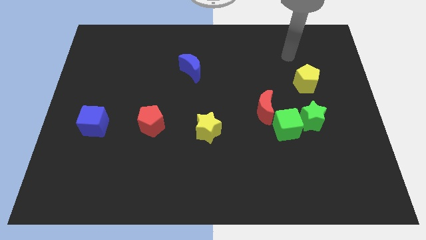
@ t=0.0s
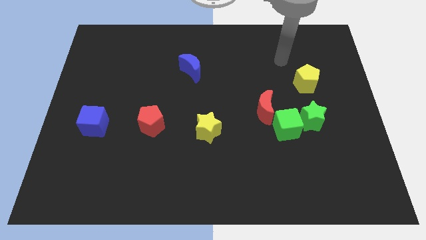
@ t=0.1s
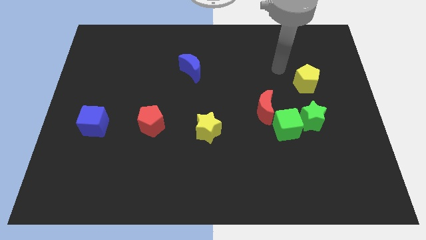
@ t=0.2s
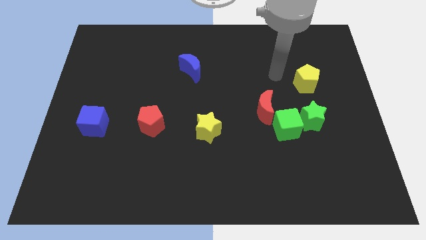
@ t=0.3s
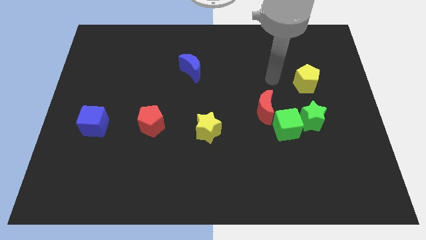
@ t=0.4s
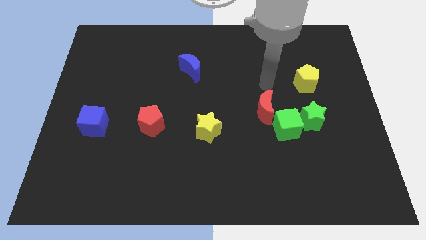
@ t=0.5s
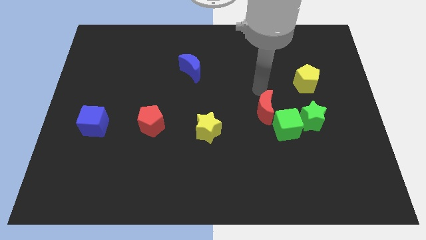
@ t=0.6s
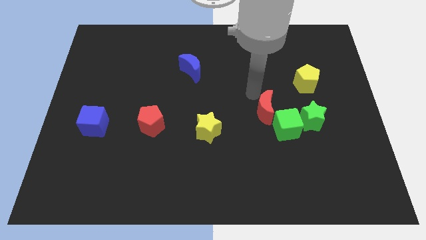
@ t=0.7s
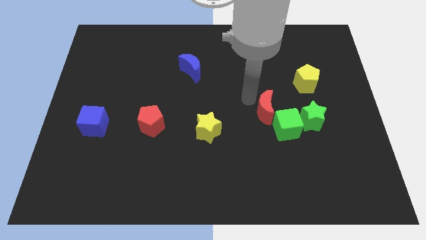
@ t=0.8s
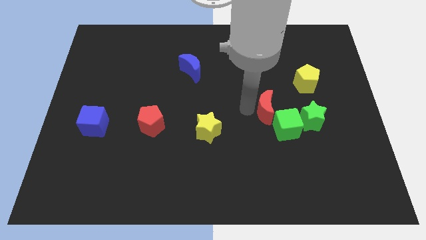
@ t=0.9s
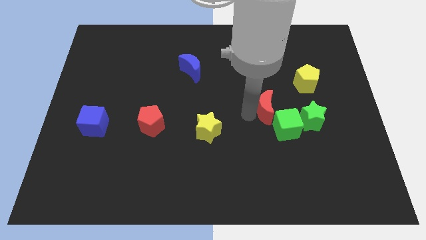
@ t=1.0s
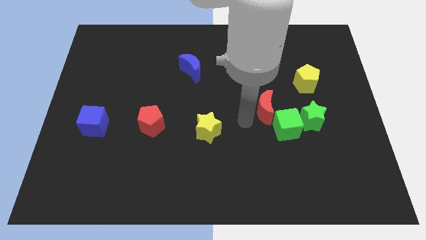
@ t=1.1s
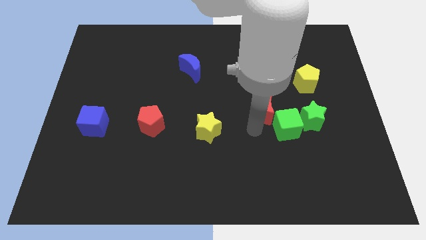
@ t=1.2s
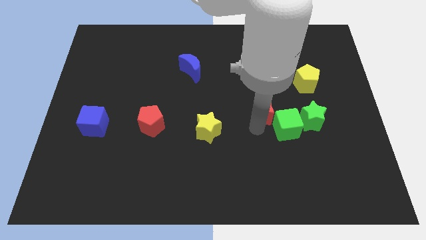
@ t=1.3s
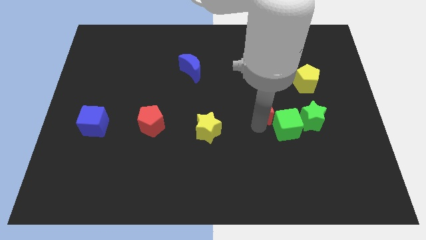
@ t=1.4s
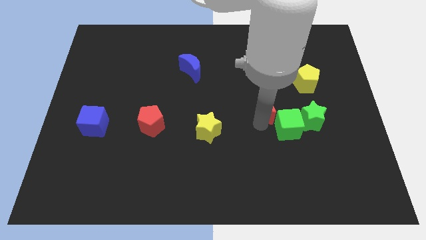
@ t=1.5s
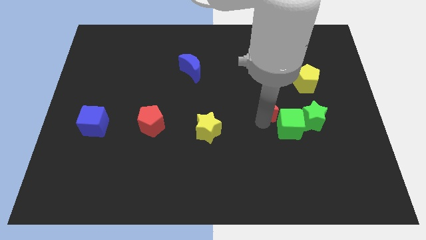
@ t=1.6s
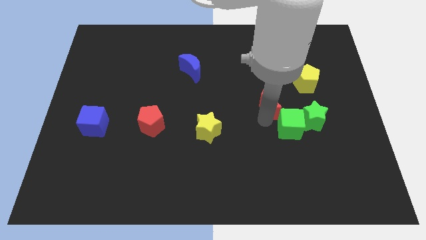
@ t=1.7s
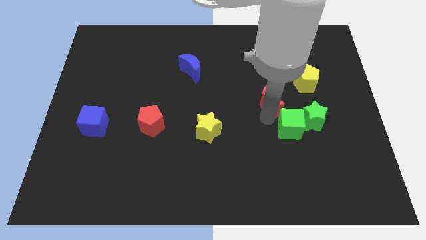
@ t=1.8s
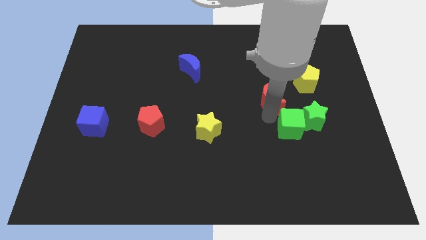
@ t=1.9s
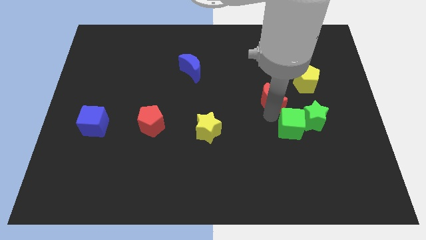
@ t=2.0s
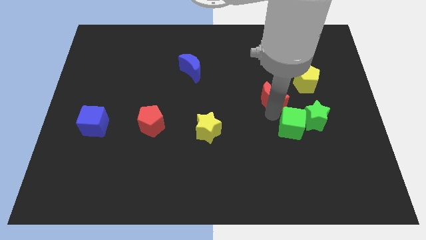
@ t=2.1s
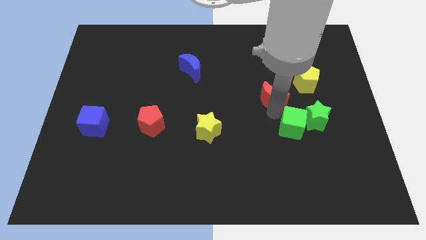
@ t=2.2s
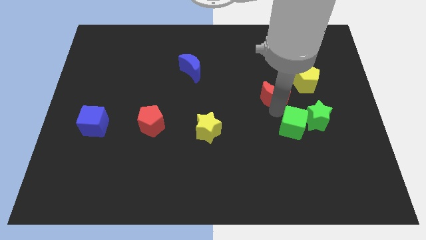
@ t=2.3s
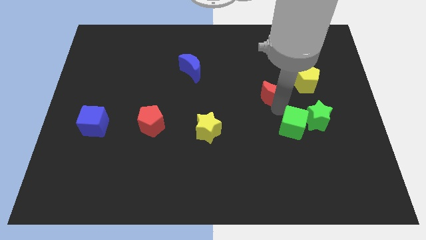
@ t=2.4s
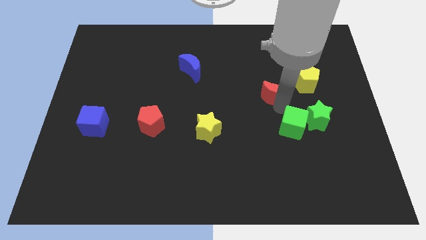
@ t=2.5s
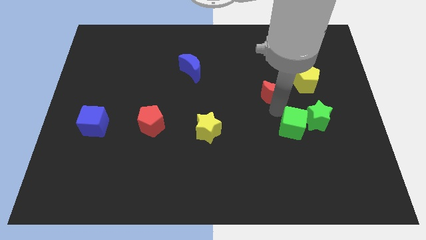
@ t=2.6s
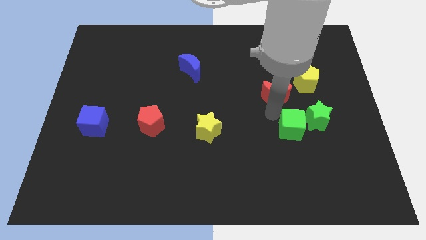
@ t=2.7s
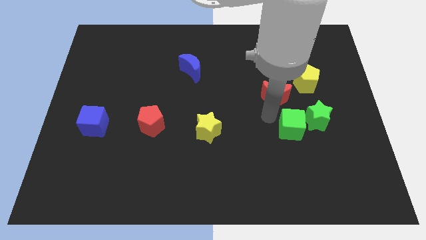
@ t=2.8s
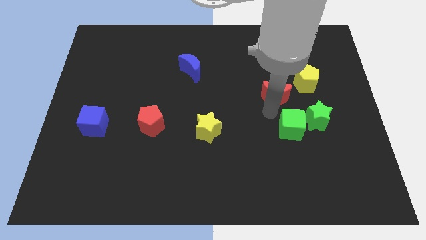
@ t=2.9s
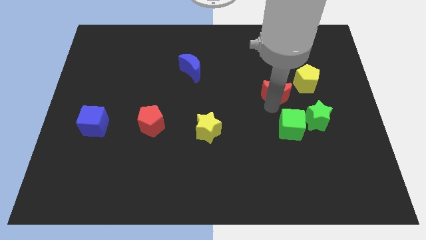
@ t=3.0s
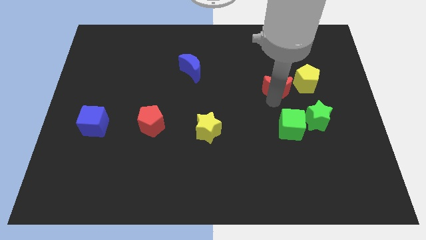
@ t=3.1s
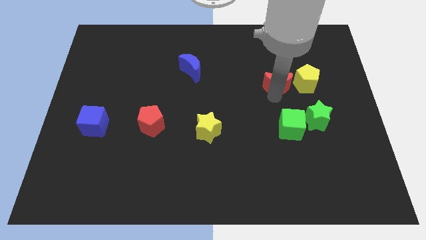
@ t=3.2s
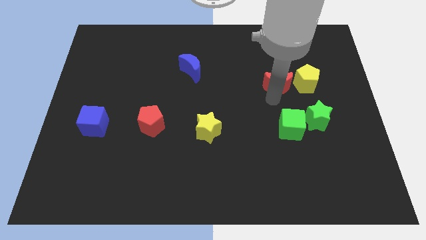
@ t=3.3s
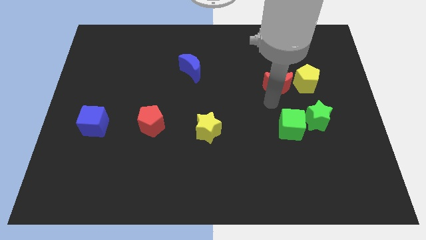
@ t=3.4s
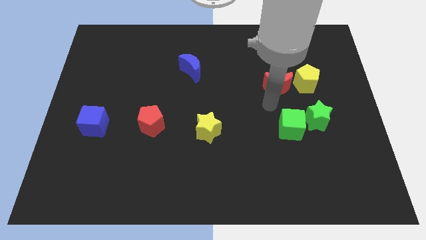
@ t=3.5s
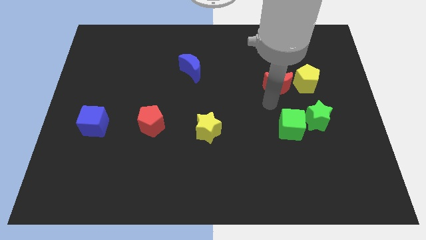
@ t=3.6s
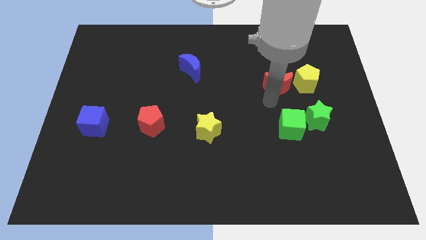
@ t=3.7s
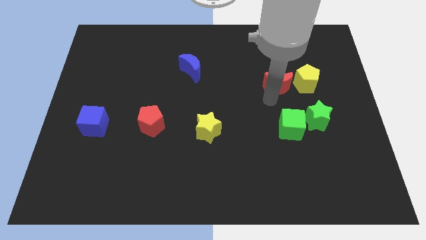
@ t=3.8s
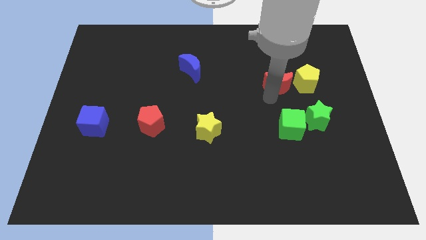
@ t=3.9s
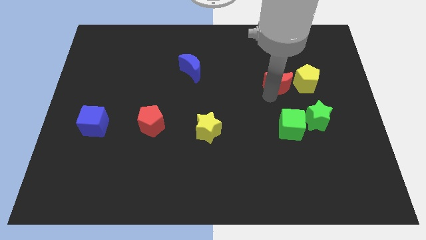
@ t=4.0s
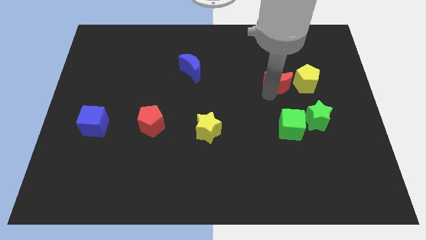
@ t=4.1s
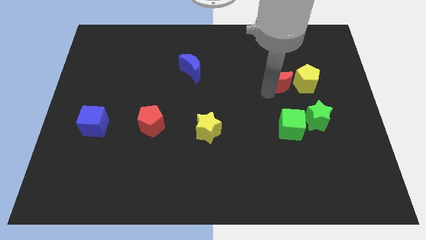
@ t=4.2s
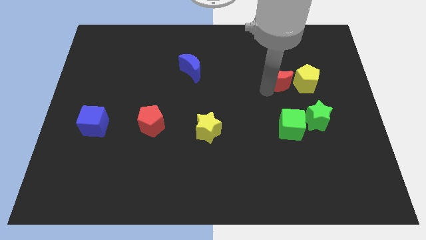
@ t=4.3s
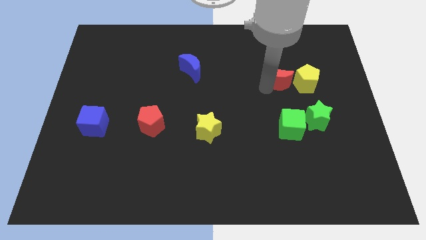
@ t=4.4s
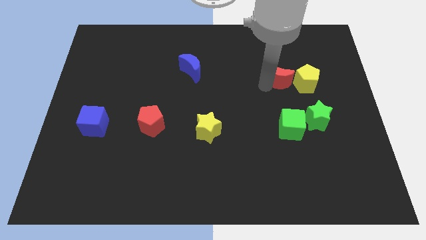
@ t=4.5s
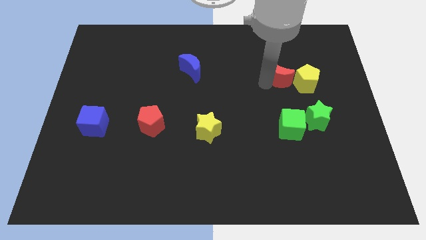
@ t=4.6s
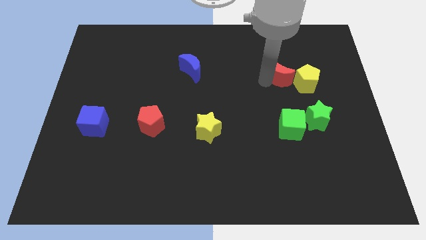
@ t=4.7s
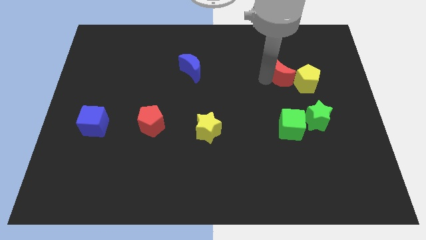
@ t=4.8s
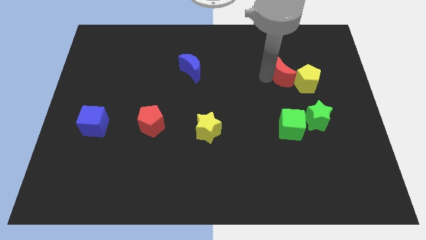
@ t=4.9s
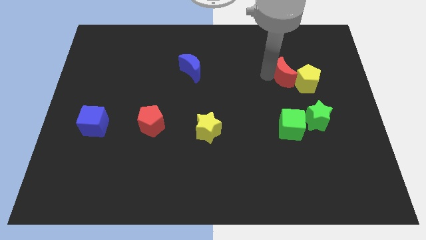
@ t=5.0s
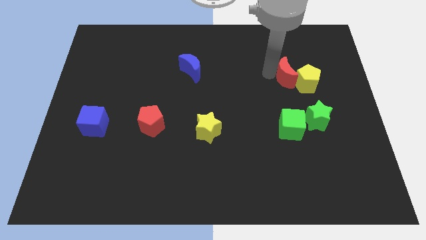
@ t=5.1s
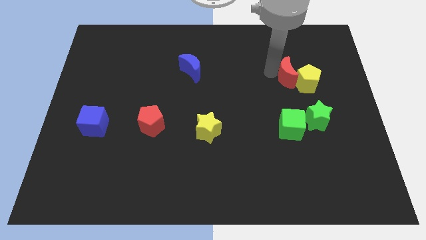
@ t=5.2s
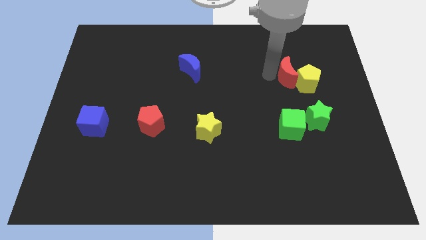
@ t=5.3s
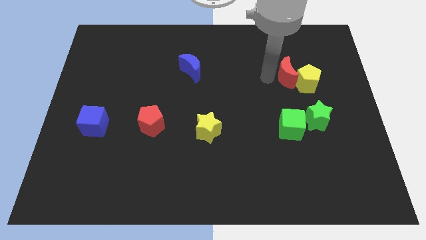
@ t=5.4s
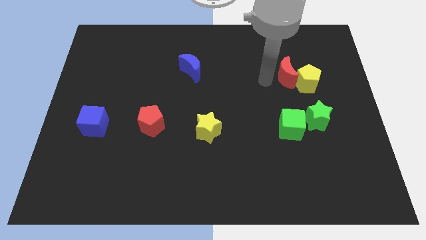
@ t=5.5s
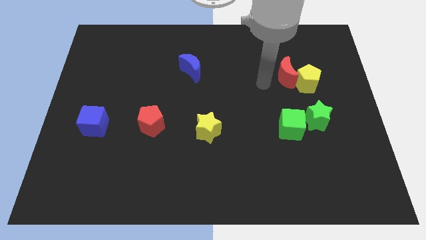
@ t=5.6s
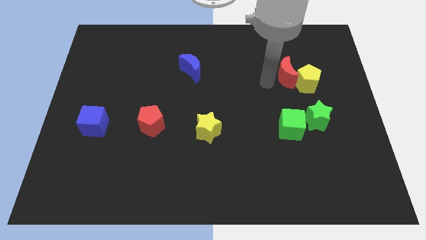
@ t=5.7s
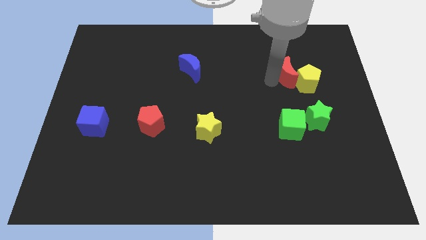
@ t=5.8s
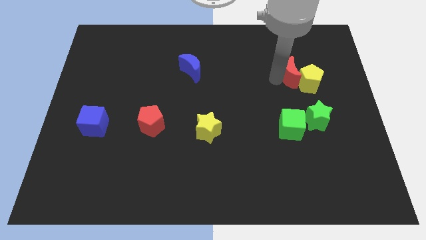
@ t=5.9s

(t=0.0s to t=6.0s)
slide the red moon to the top side of the green star

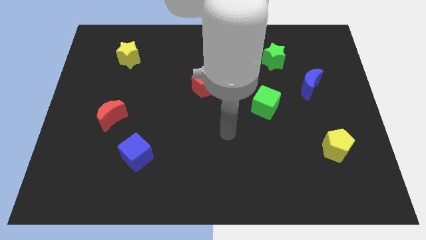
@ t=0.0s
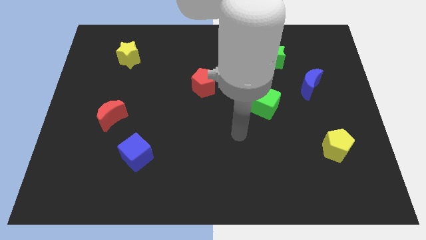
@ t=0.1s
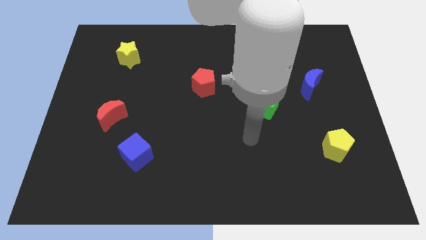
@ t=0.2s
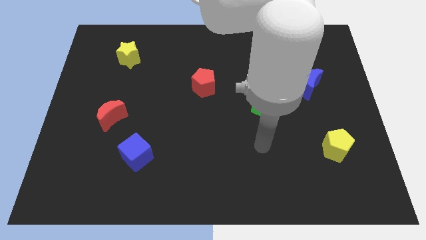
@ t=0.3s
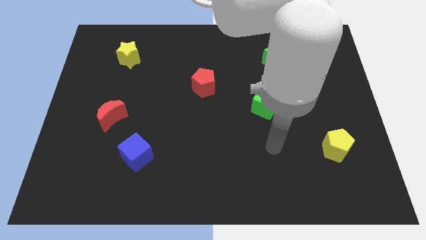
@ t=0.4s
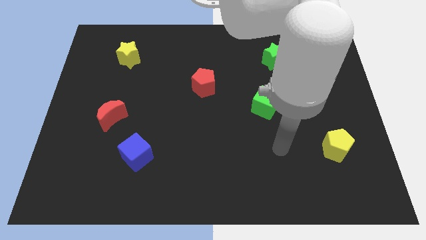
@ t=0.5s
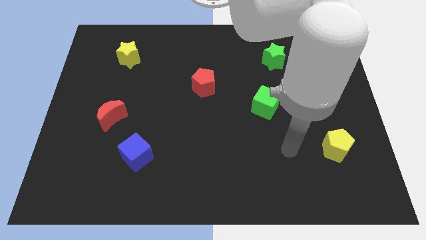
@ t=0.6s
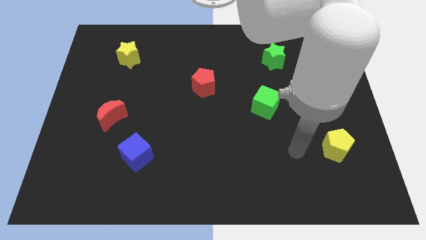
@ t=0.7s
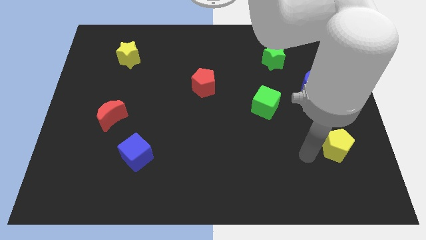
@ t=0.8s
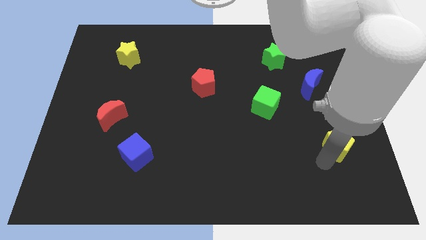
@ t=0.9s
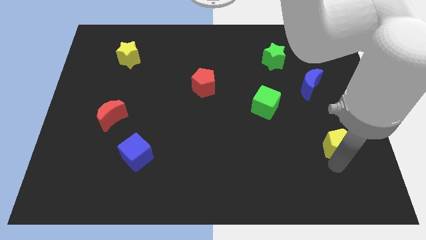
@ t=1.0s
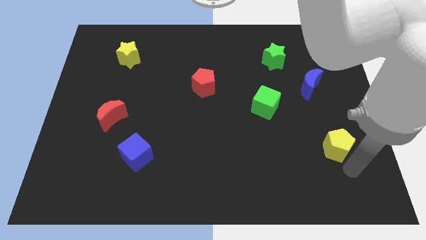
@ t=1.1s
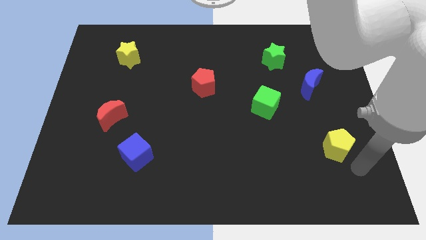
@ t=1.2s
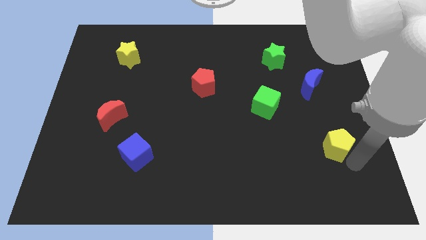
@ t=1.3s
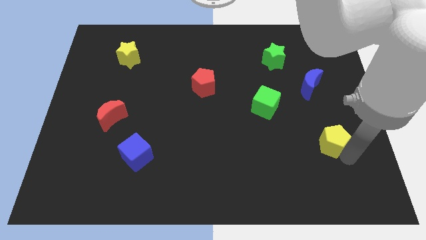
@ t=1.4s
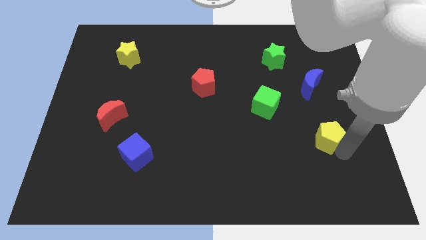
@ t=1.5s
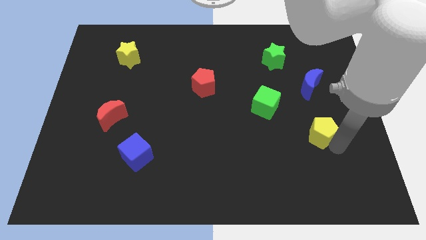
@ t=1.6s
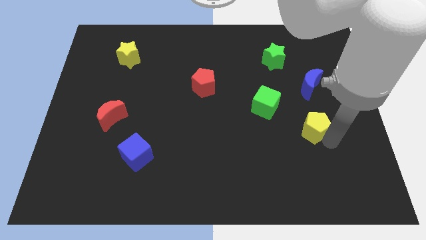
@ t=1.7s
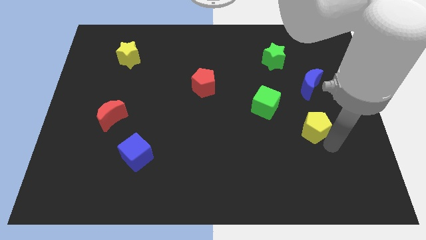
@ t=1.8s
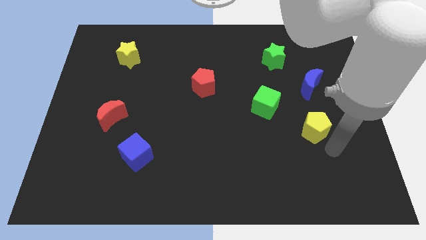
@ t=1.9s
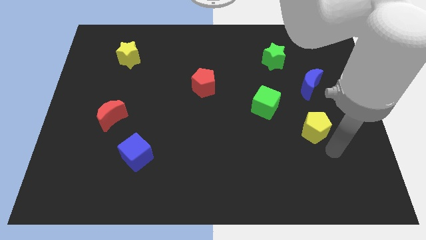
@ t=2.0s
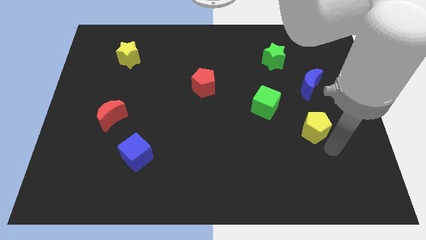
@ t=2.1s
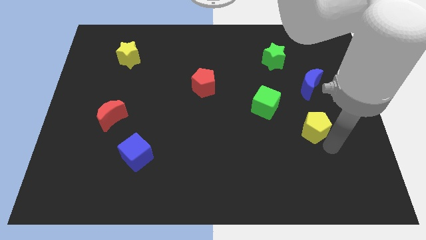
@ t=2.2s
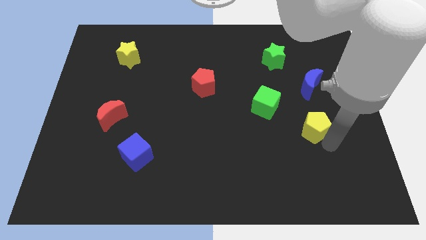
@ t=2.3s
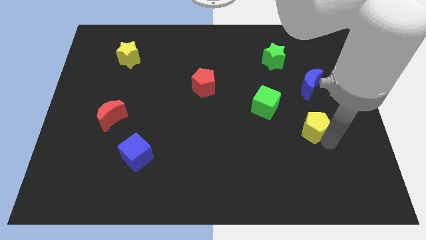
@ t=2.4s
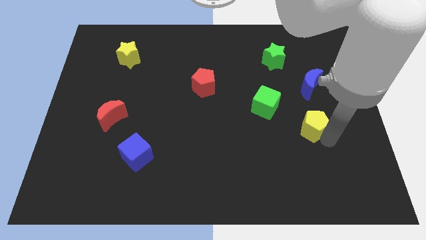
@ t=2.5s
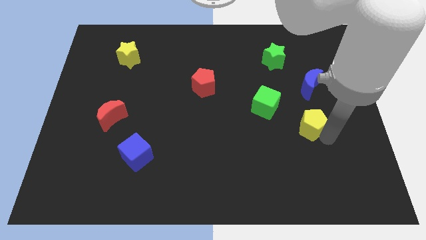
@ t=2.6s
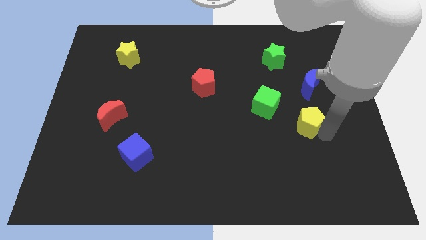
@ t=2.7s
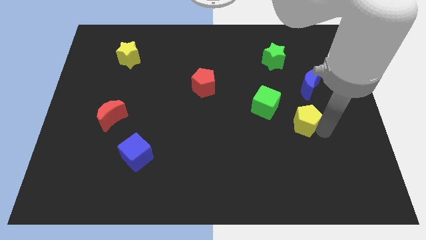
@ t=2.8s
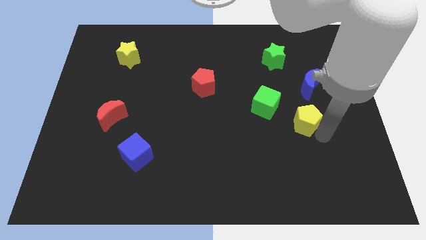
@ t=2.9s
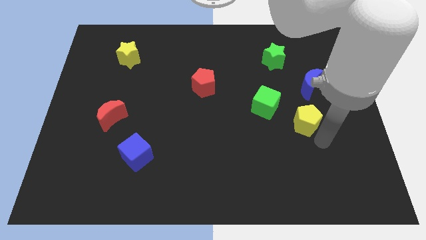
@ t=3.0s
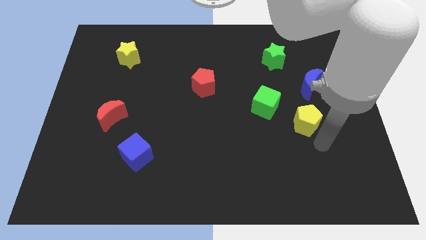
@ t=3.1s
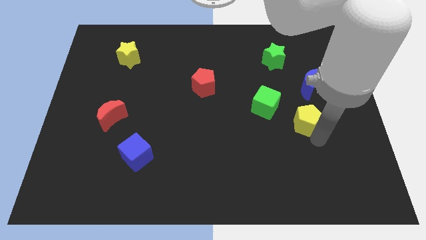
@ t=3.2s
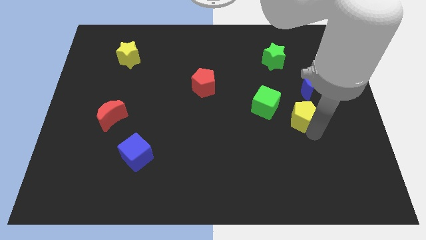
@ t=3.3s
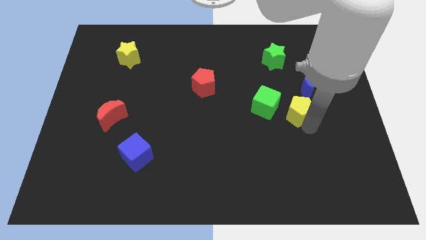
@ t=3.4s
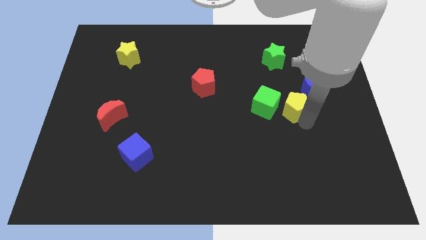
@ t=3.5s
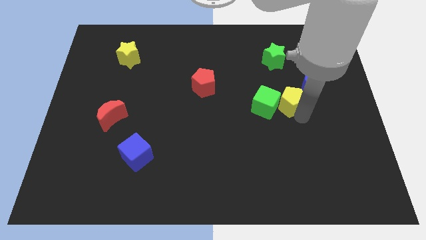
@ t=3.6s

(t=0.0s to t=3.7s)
put the yellow pentagon to the bottom side of the green star
